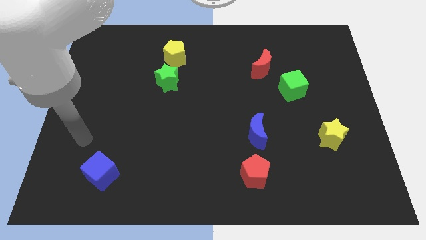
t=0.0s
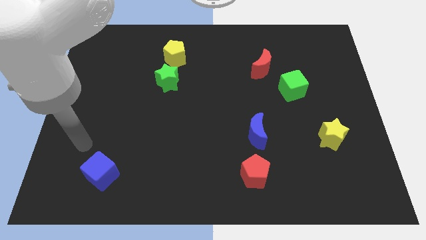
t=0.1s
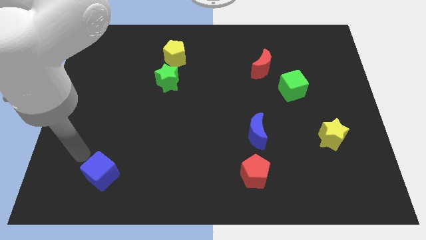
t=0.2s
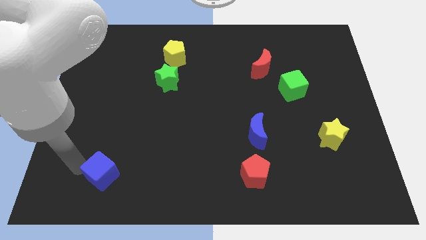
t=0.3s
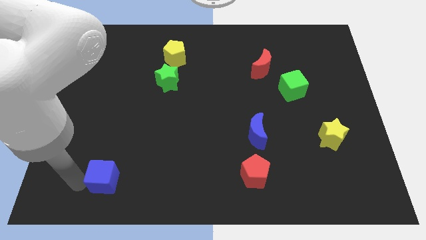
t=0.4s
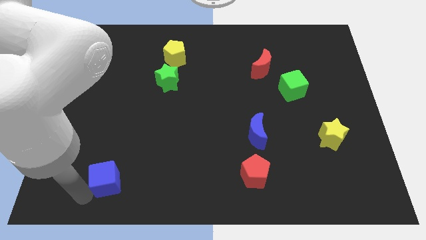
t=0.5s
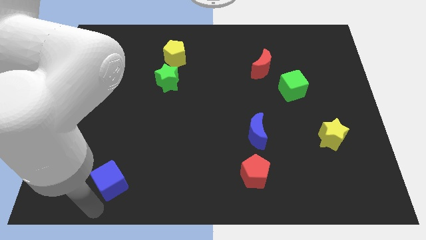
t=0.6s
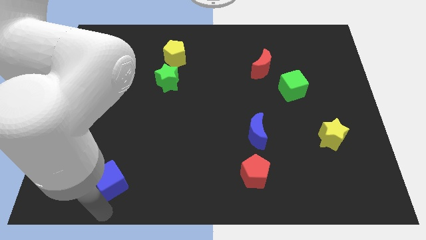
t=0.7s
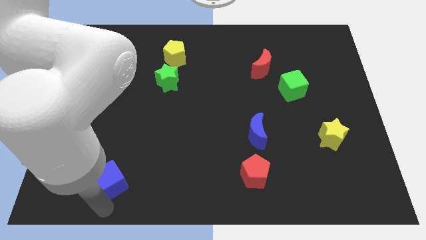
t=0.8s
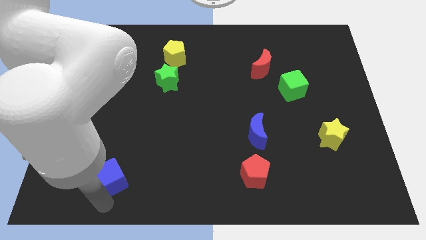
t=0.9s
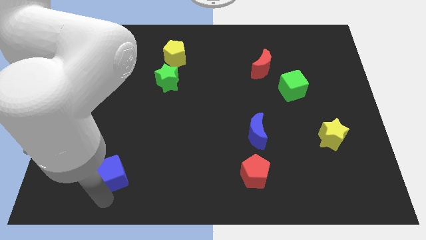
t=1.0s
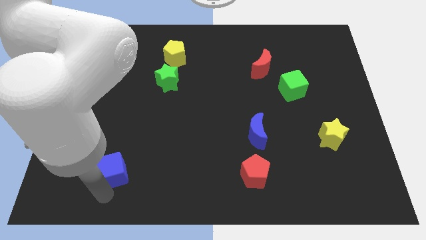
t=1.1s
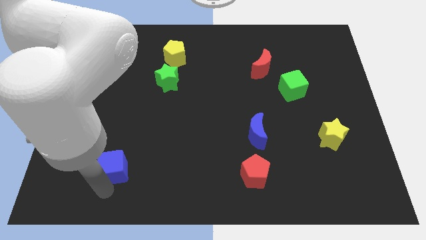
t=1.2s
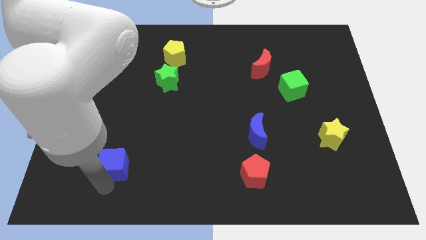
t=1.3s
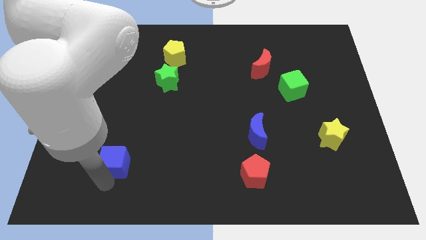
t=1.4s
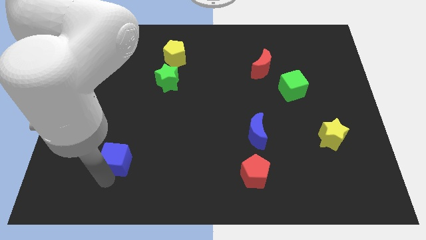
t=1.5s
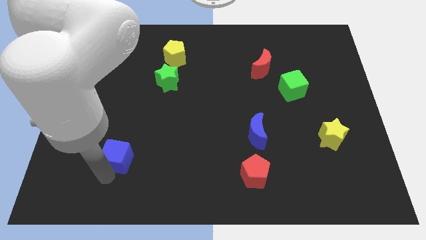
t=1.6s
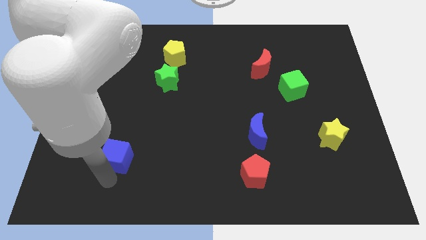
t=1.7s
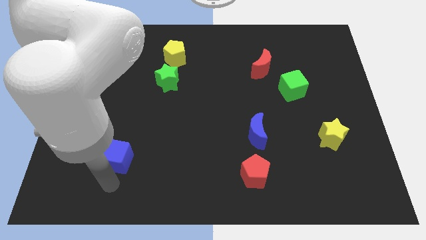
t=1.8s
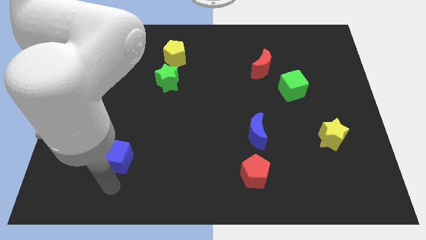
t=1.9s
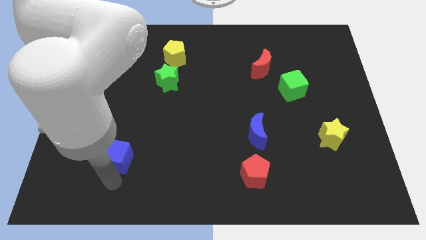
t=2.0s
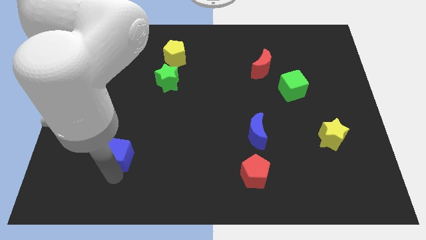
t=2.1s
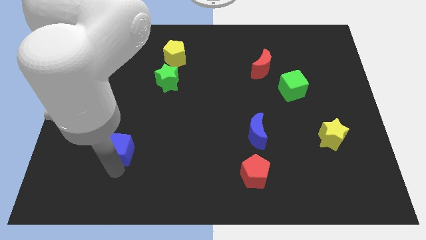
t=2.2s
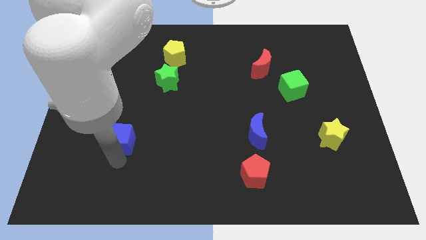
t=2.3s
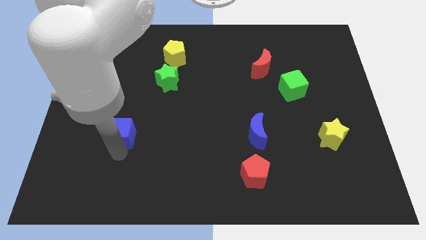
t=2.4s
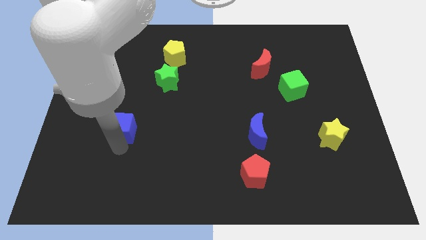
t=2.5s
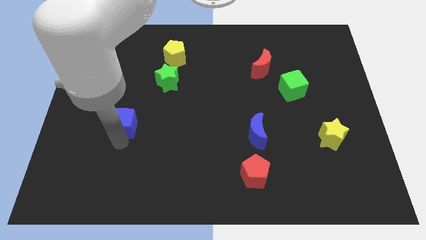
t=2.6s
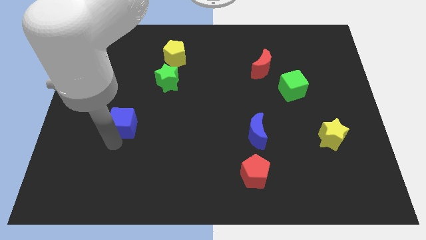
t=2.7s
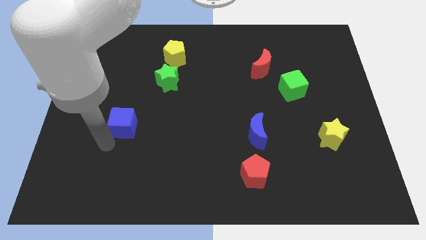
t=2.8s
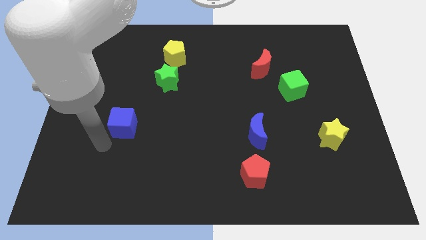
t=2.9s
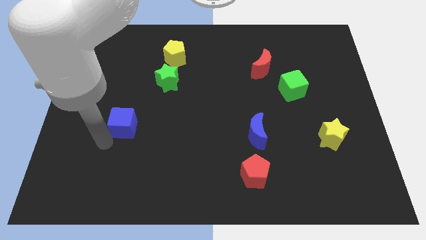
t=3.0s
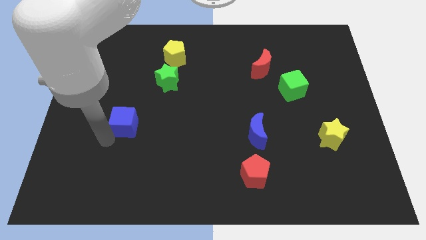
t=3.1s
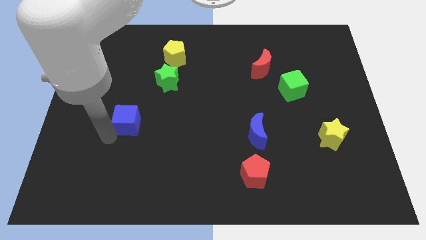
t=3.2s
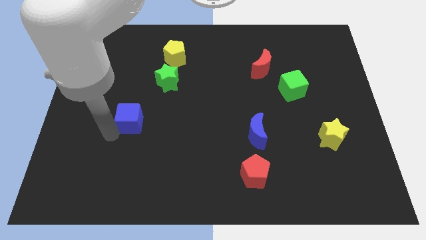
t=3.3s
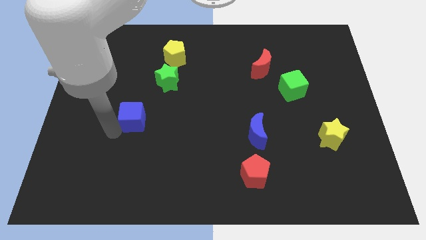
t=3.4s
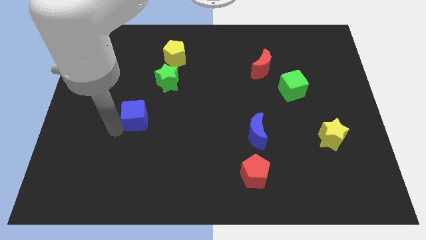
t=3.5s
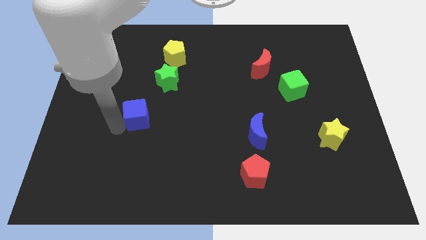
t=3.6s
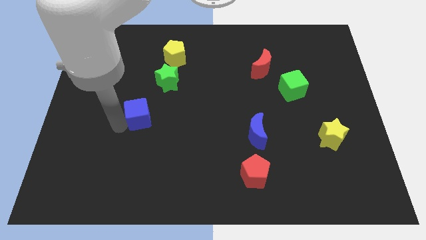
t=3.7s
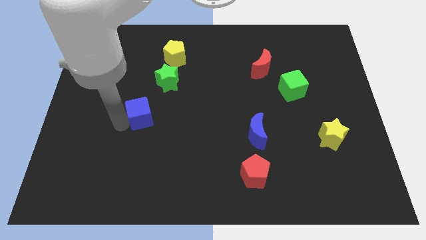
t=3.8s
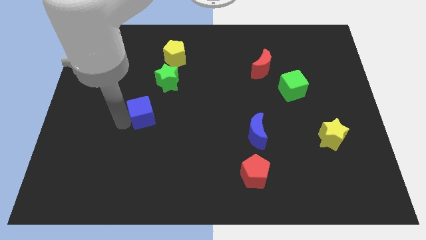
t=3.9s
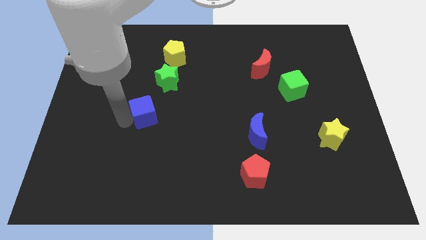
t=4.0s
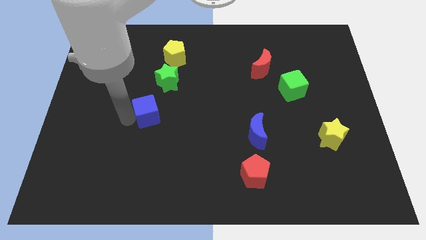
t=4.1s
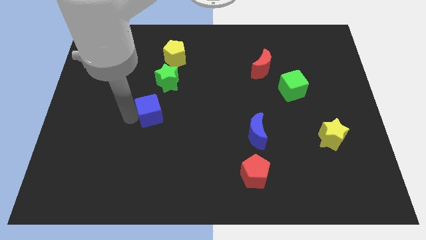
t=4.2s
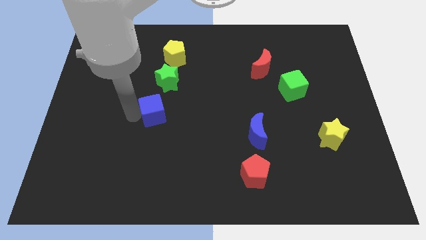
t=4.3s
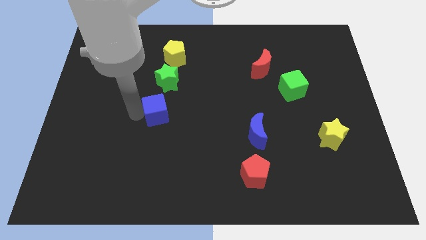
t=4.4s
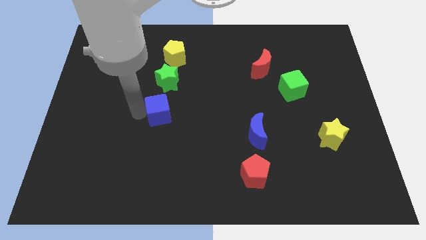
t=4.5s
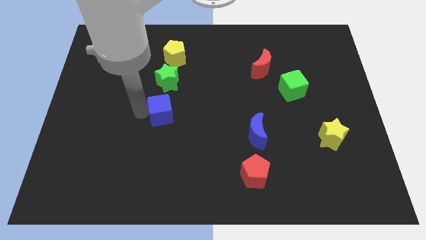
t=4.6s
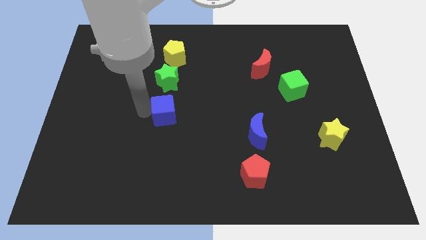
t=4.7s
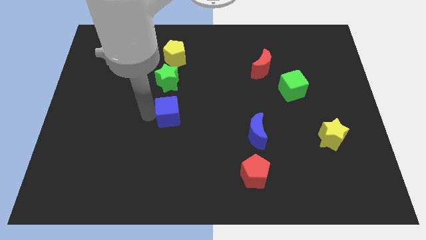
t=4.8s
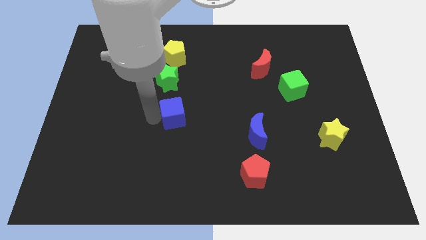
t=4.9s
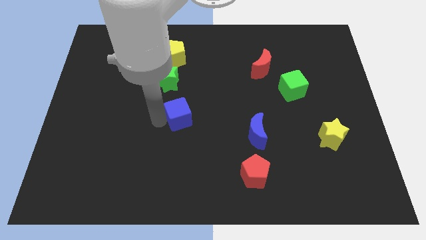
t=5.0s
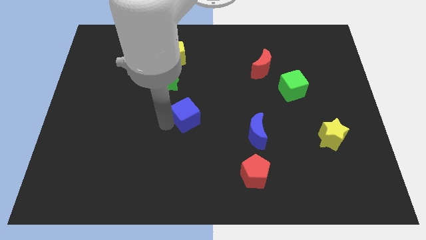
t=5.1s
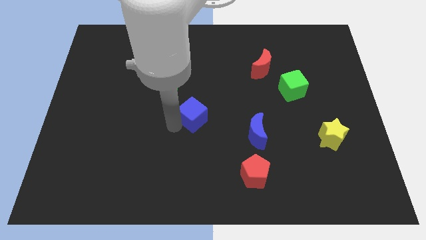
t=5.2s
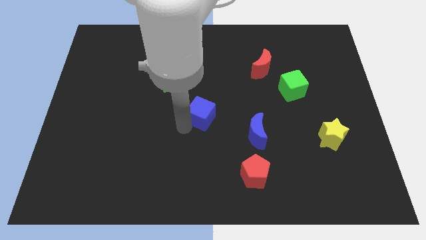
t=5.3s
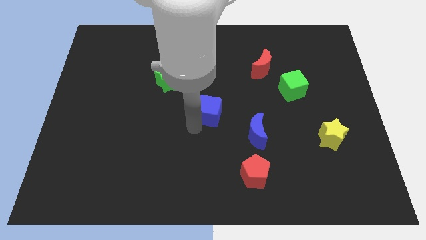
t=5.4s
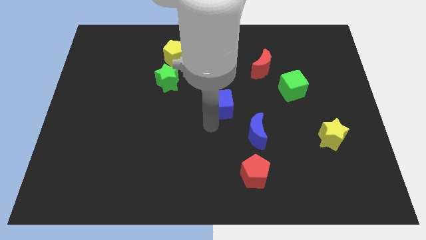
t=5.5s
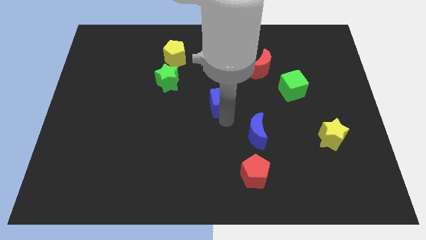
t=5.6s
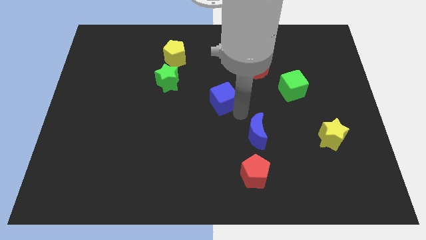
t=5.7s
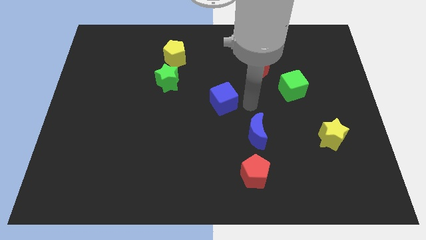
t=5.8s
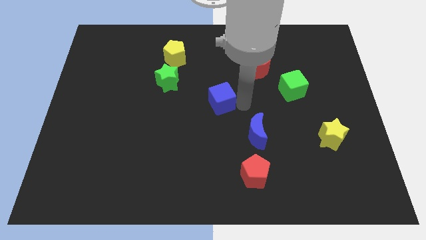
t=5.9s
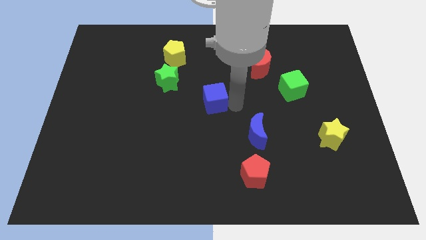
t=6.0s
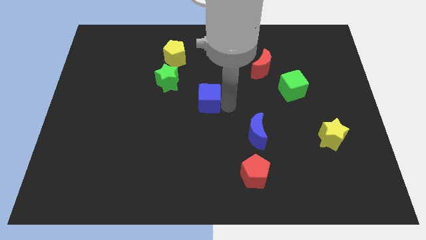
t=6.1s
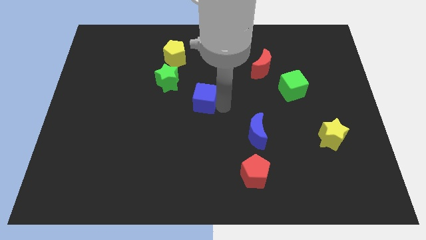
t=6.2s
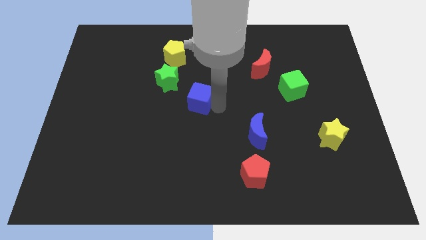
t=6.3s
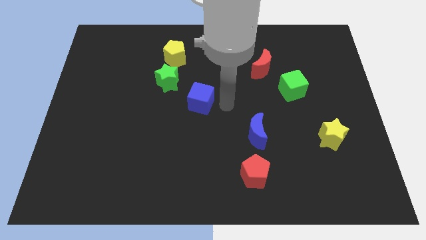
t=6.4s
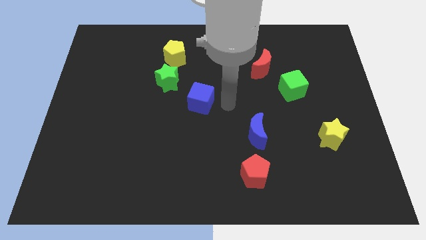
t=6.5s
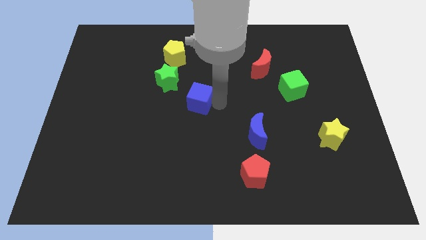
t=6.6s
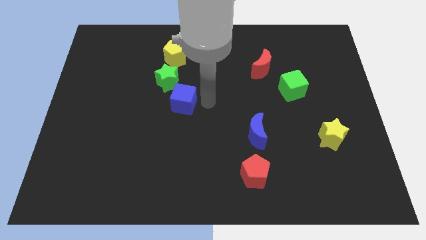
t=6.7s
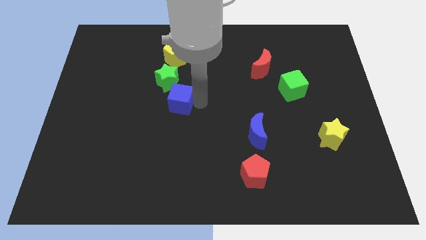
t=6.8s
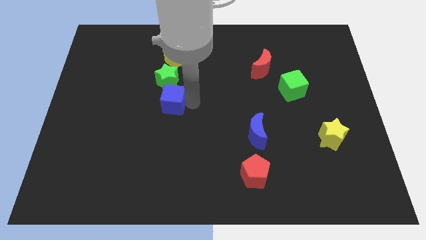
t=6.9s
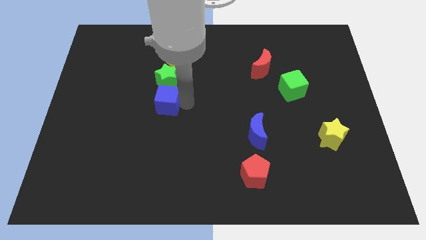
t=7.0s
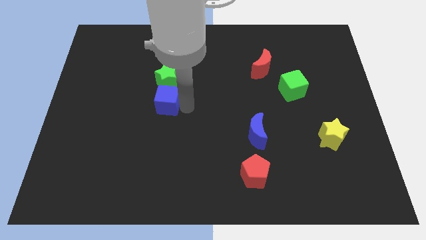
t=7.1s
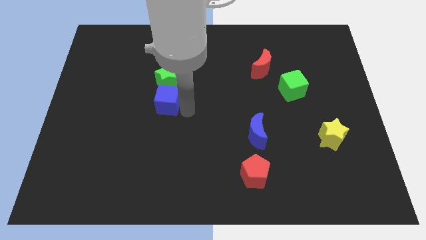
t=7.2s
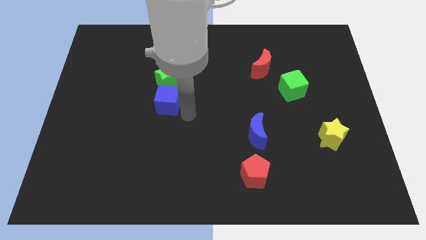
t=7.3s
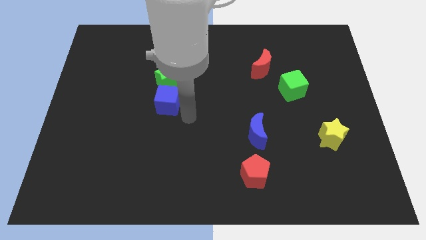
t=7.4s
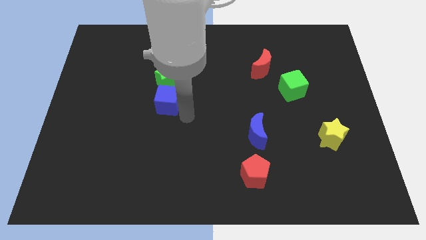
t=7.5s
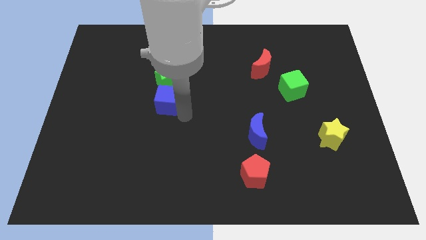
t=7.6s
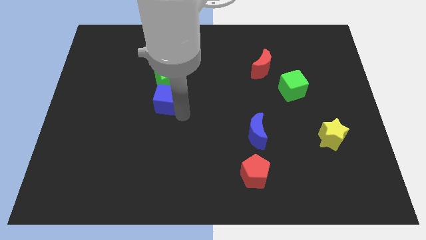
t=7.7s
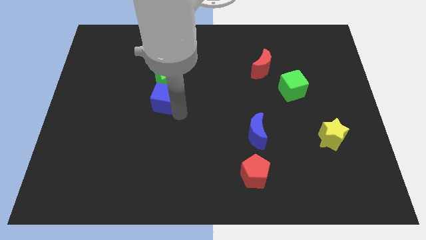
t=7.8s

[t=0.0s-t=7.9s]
push the blue cube to the green star
